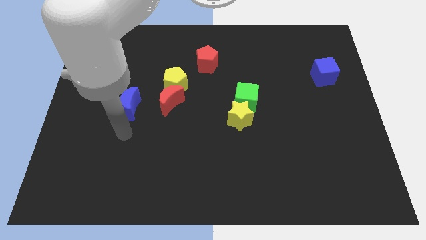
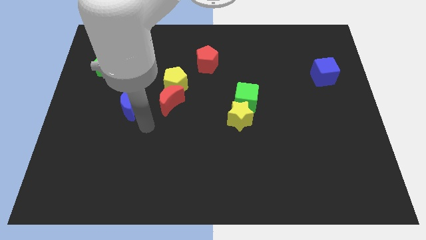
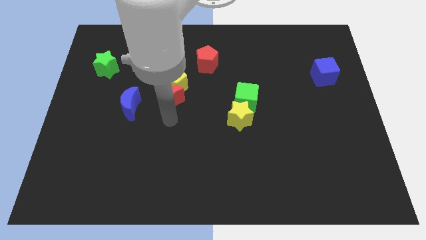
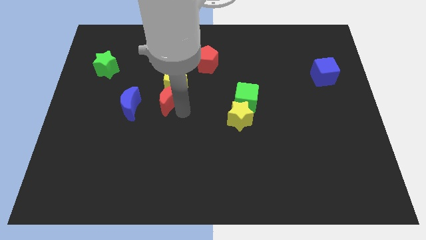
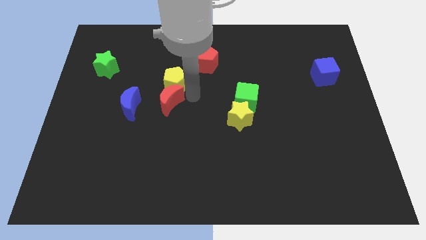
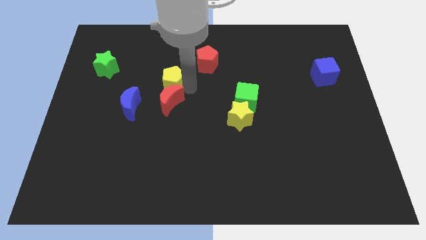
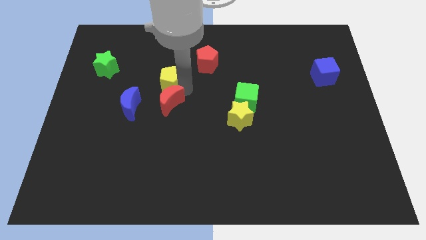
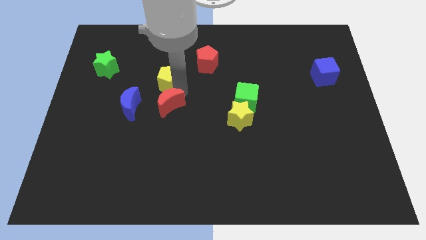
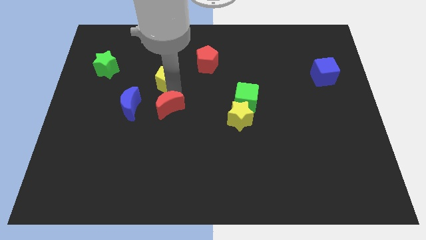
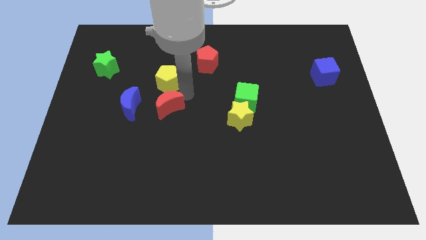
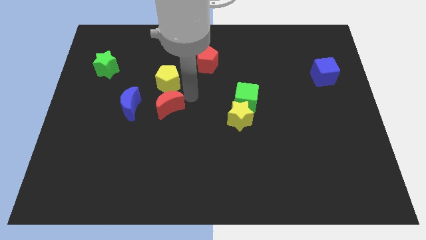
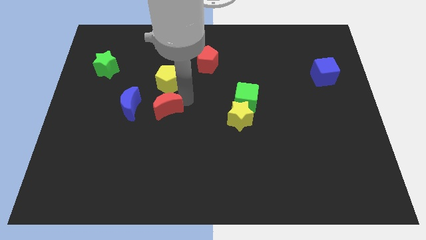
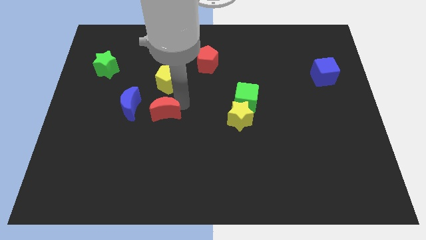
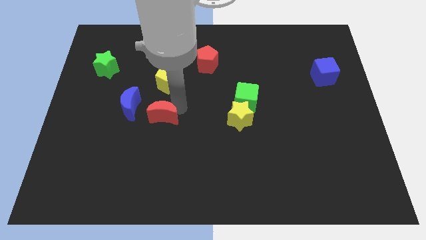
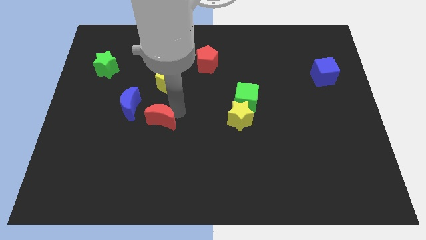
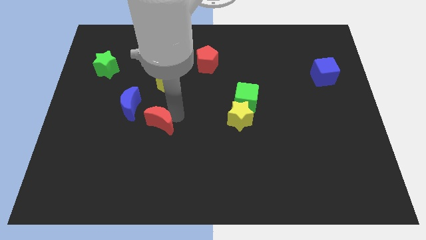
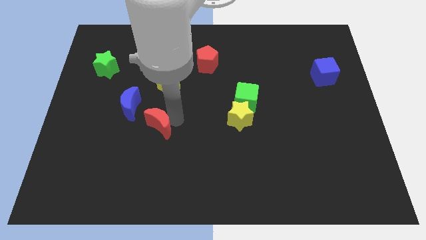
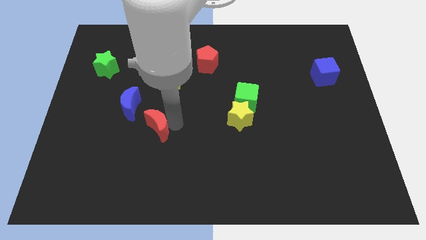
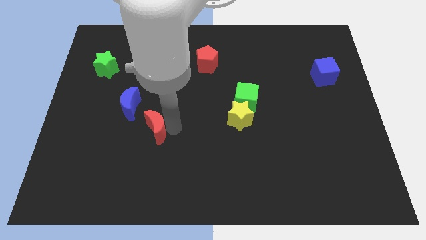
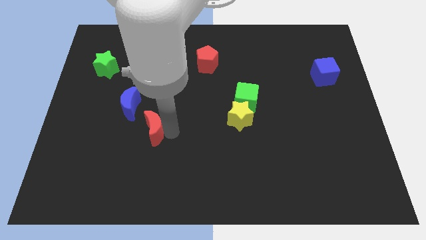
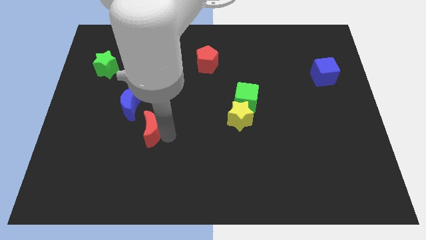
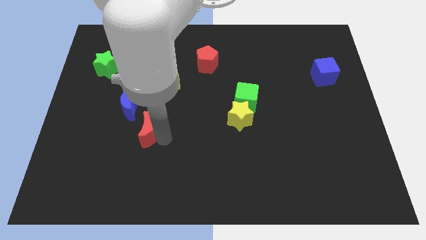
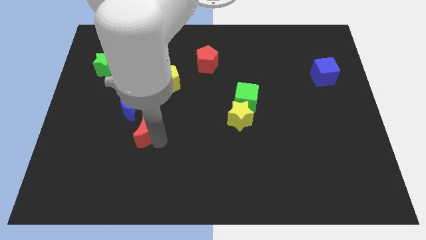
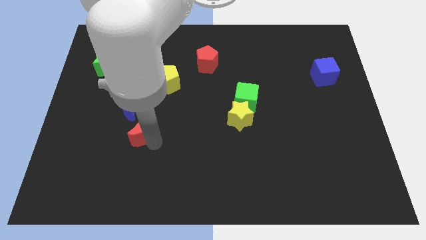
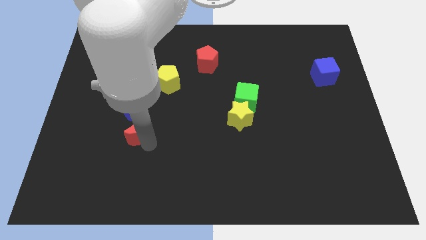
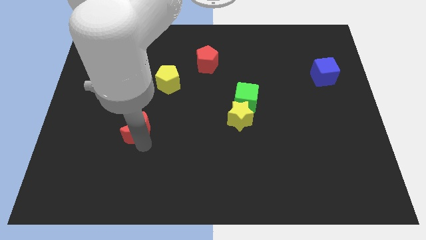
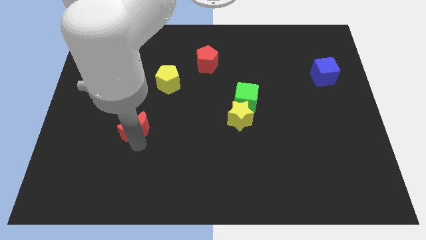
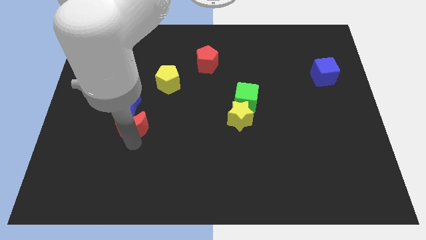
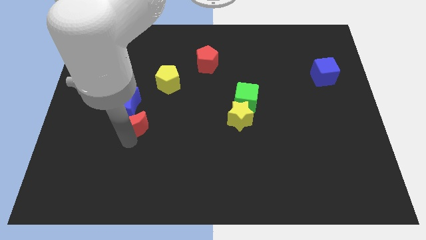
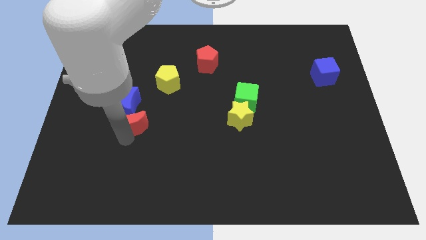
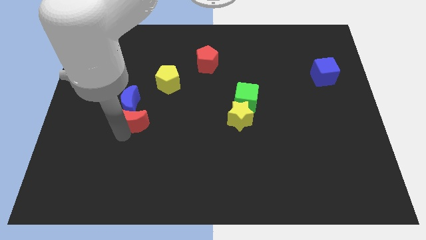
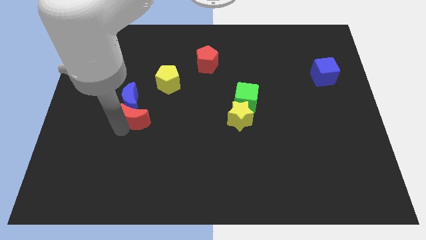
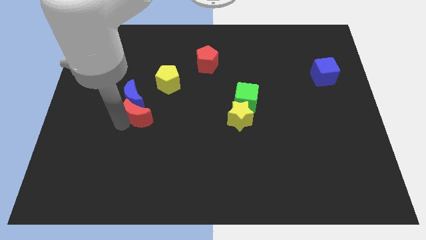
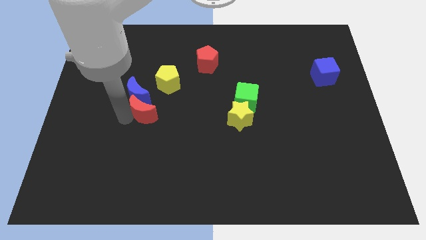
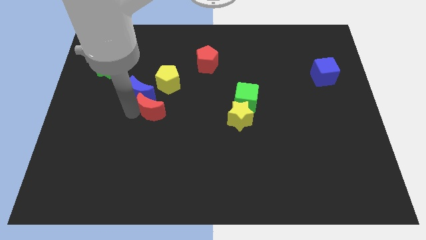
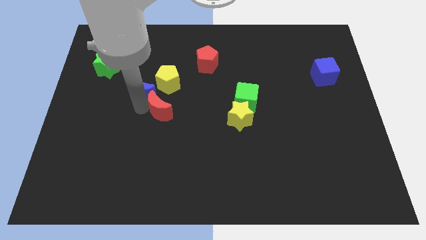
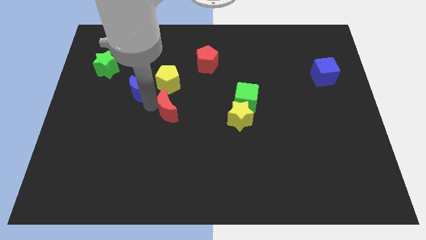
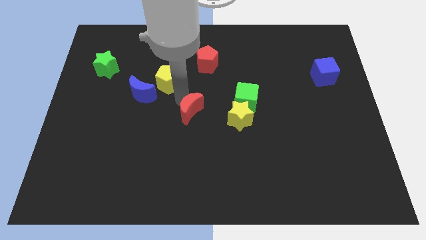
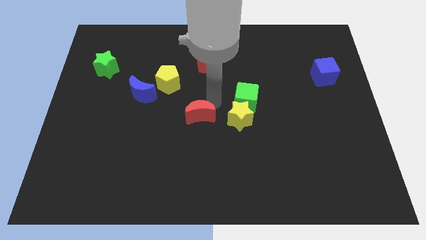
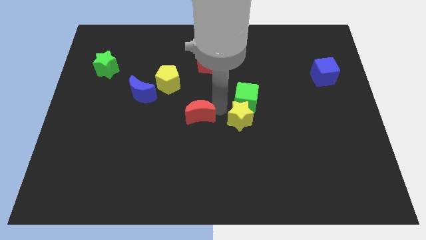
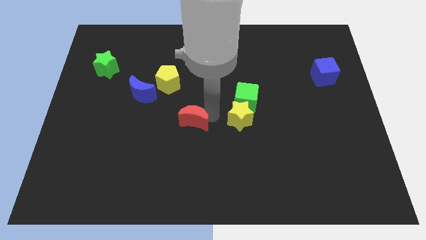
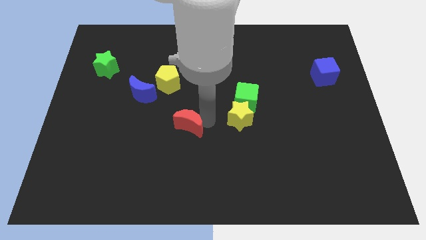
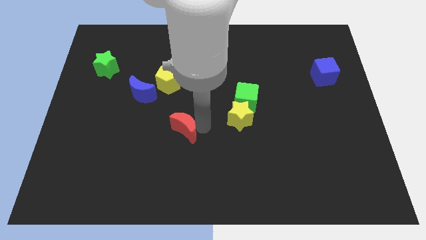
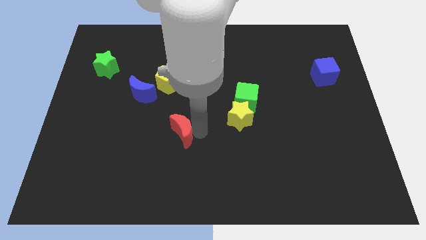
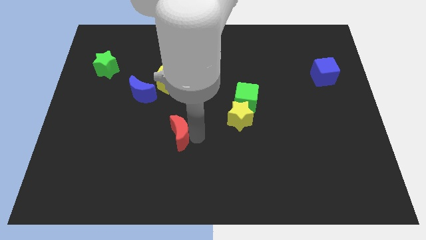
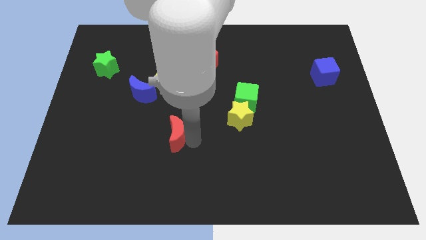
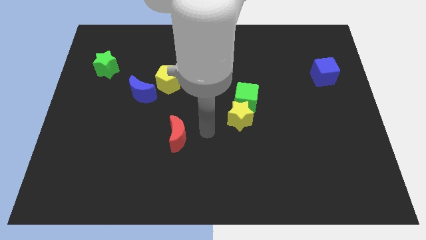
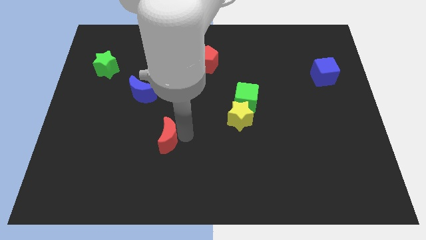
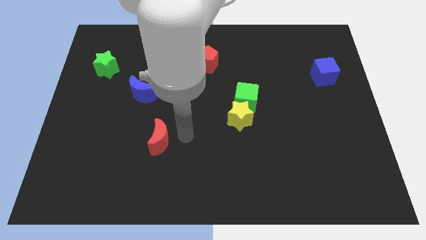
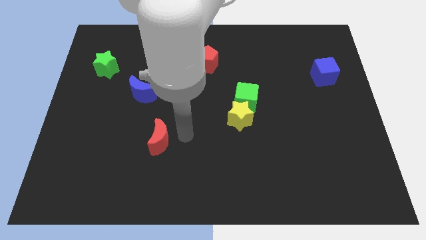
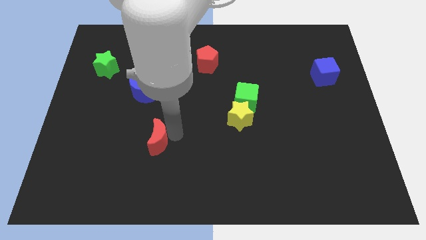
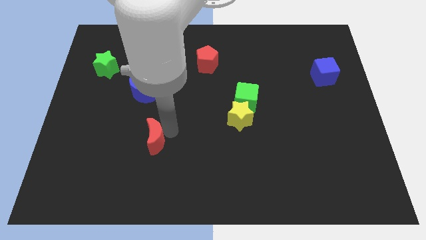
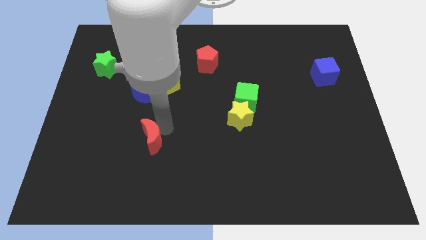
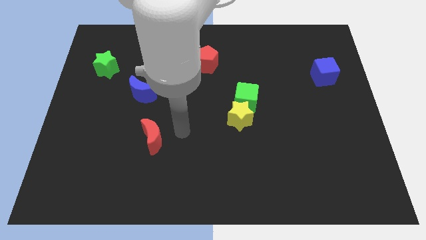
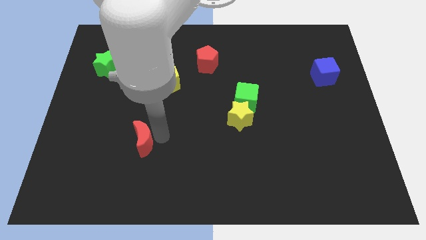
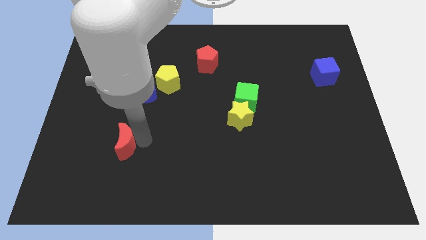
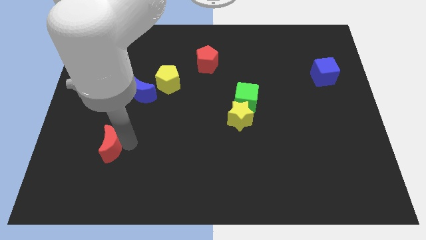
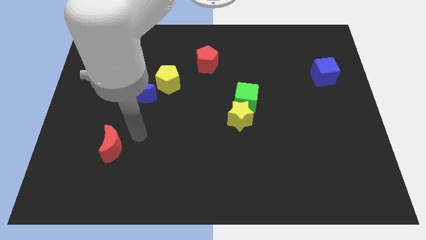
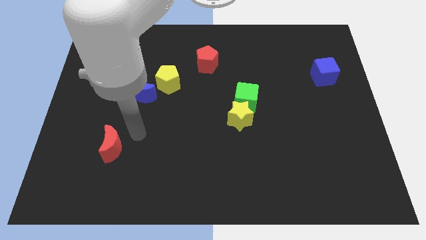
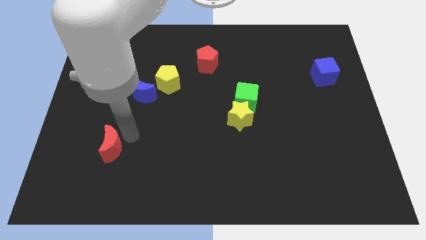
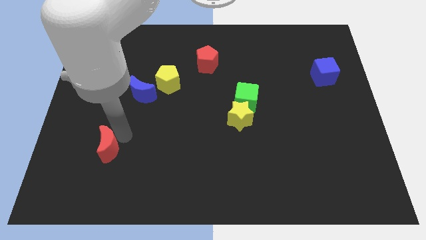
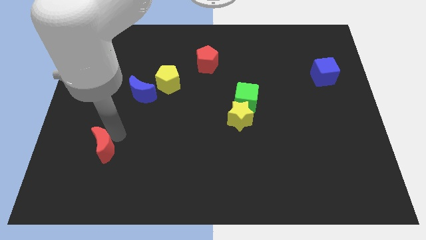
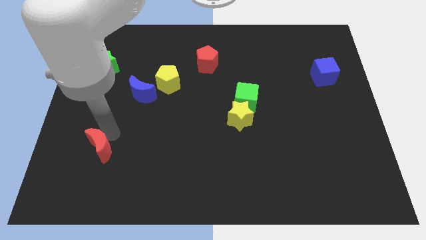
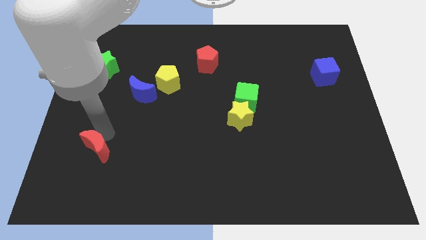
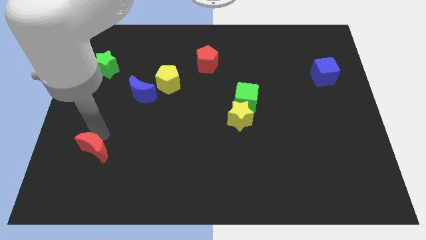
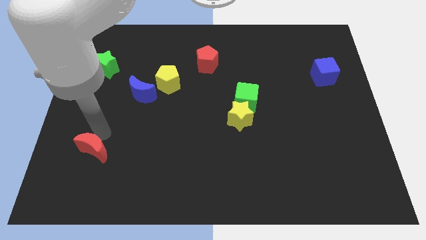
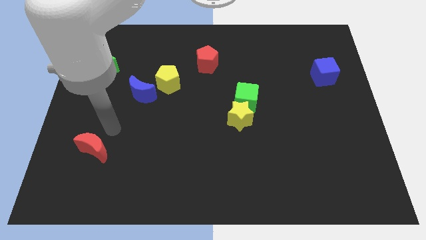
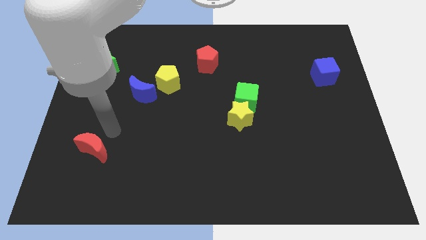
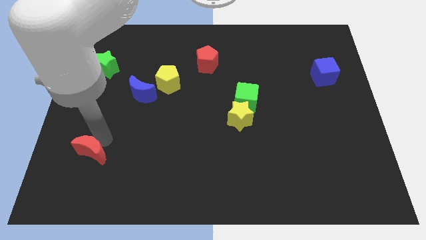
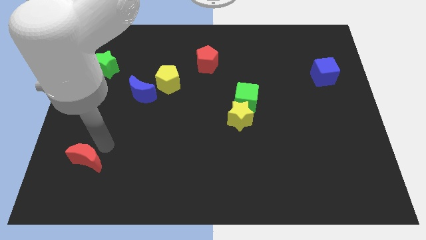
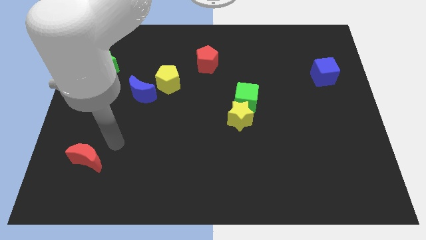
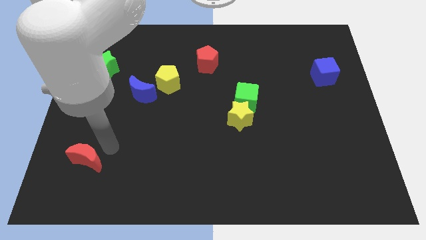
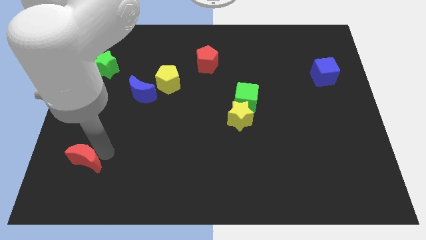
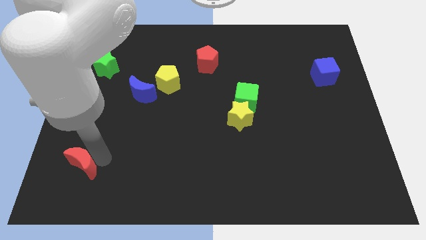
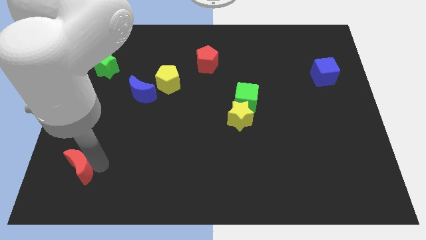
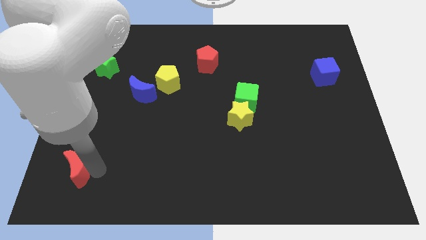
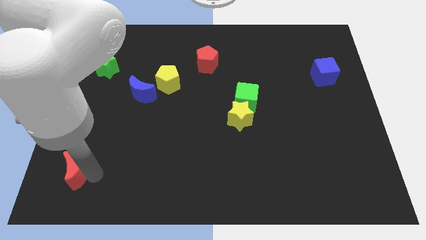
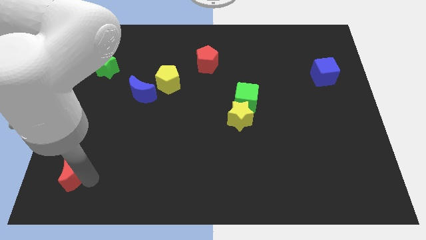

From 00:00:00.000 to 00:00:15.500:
slide the red moon to the bottom left corner
